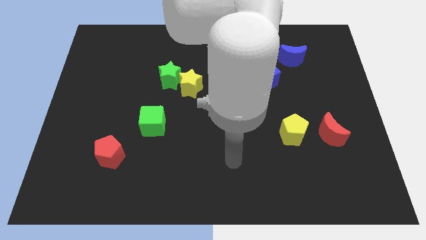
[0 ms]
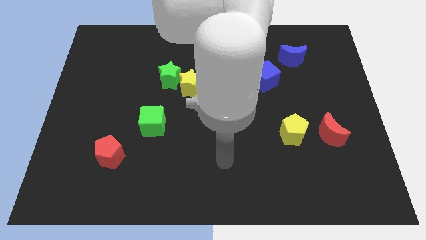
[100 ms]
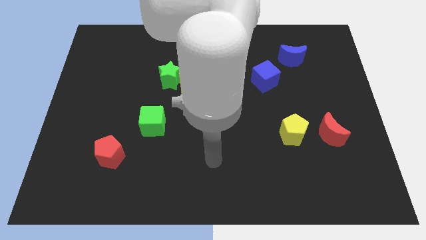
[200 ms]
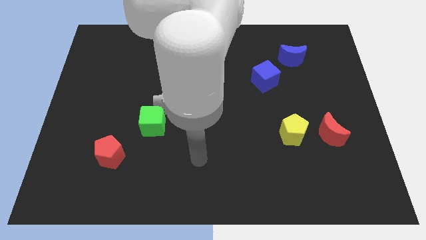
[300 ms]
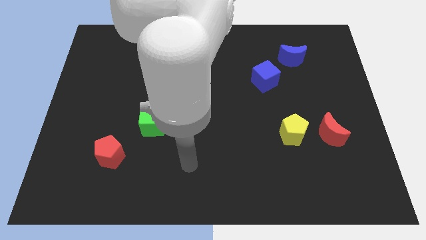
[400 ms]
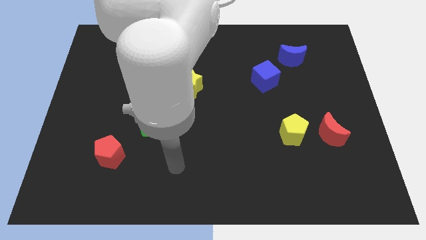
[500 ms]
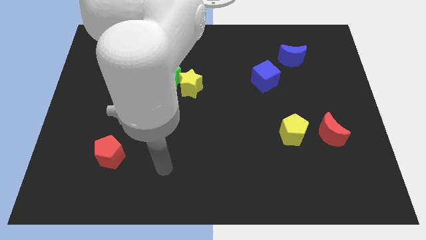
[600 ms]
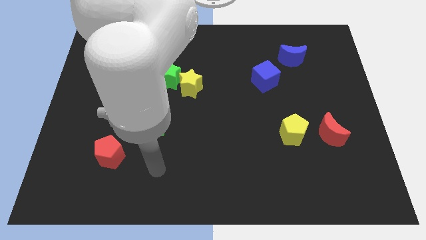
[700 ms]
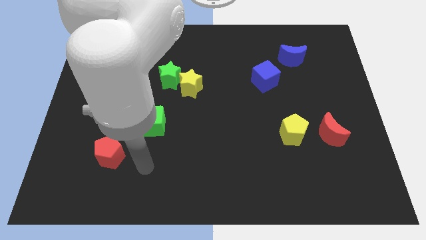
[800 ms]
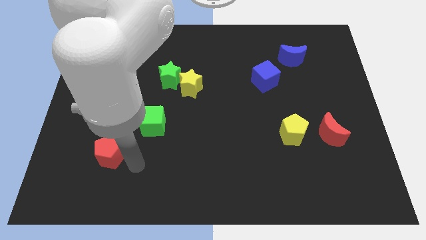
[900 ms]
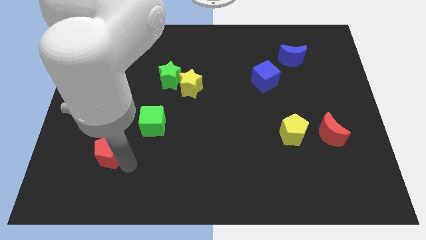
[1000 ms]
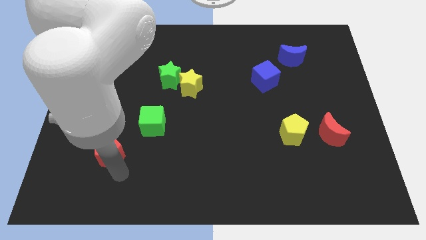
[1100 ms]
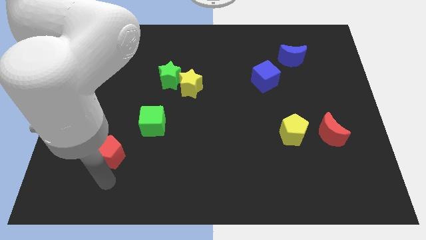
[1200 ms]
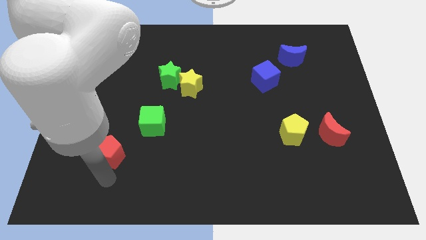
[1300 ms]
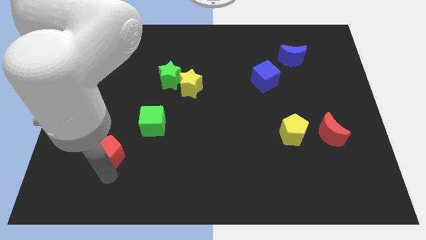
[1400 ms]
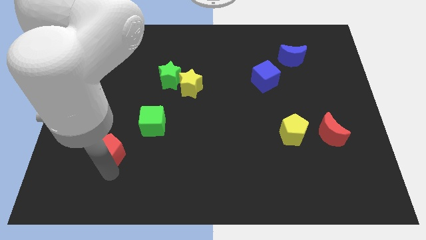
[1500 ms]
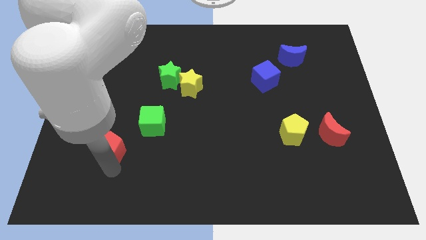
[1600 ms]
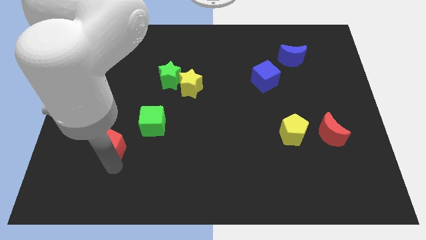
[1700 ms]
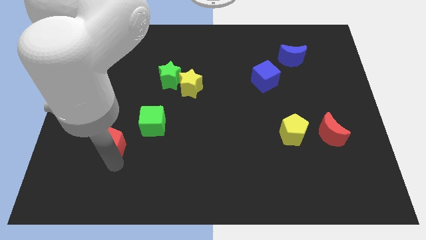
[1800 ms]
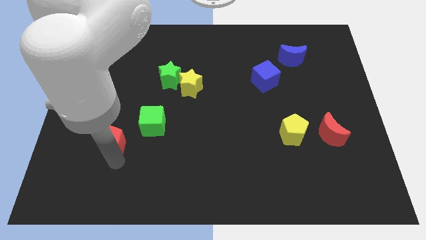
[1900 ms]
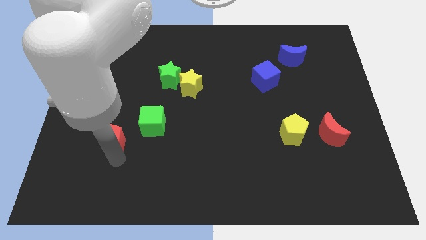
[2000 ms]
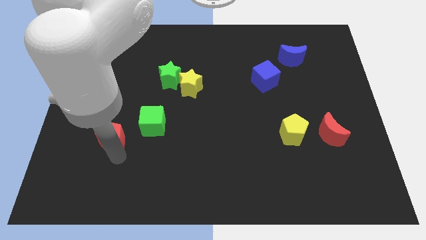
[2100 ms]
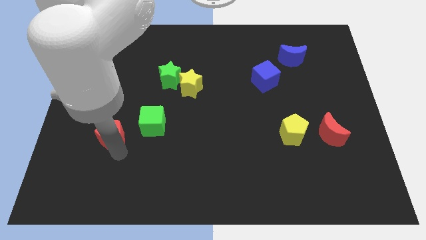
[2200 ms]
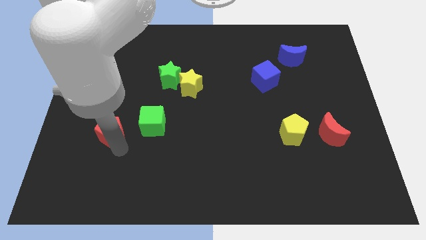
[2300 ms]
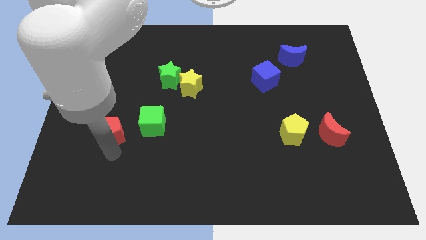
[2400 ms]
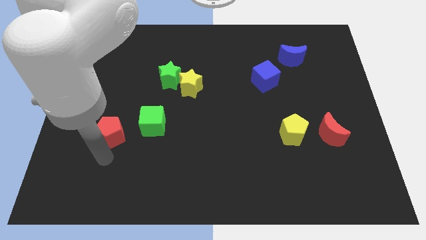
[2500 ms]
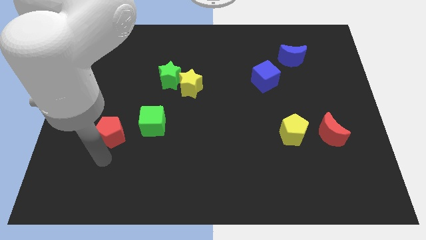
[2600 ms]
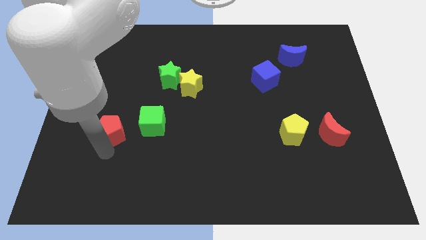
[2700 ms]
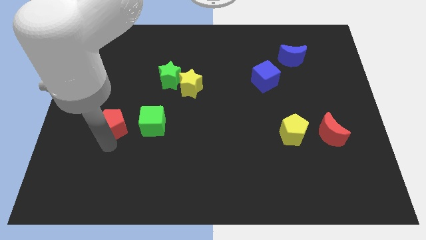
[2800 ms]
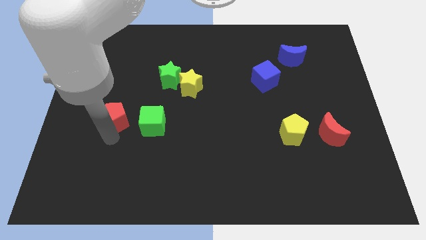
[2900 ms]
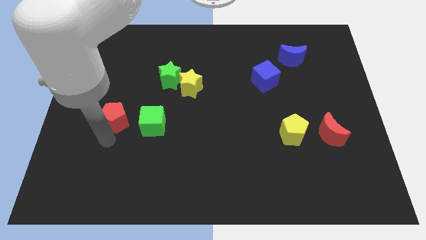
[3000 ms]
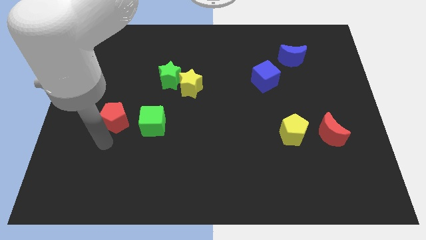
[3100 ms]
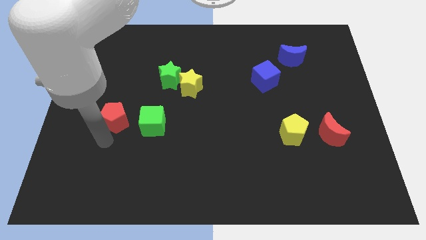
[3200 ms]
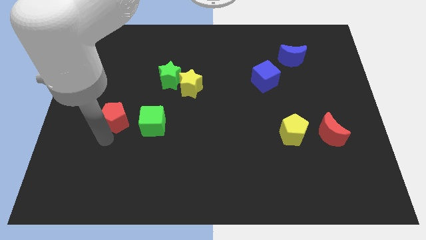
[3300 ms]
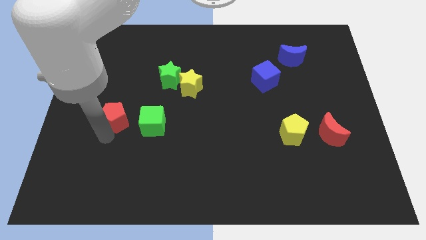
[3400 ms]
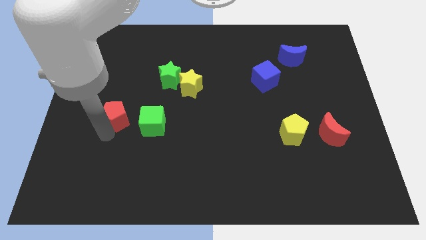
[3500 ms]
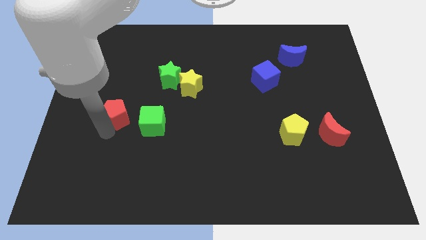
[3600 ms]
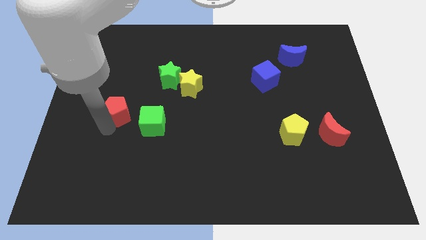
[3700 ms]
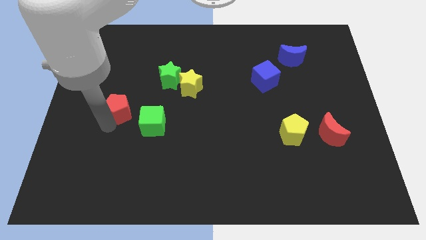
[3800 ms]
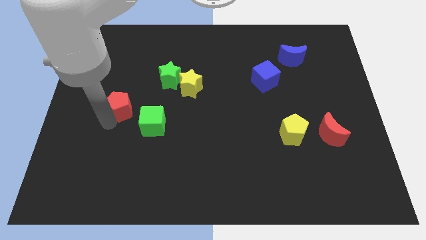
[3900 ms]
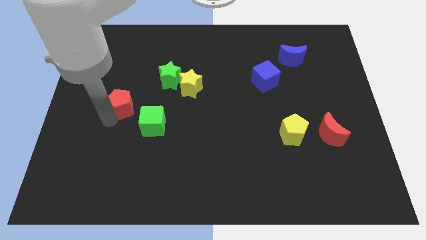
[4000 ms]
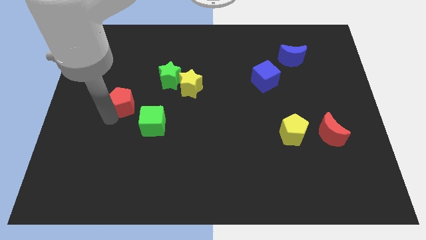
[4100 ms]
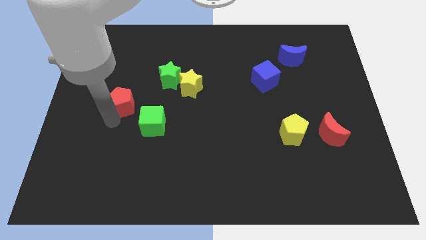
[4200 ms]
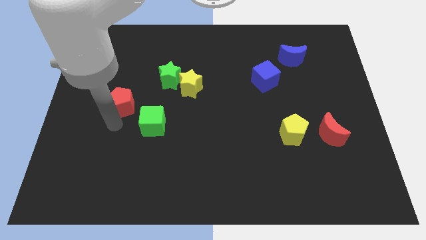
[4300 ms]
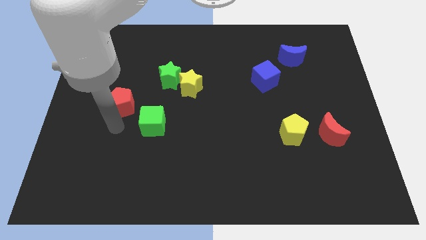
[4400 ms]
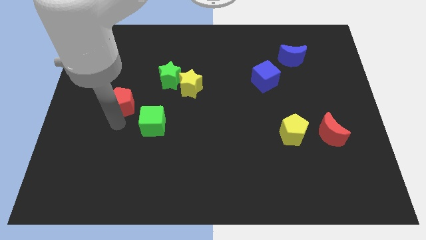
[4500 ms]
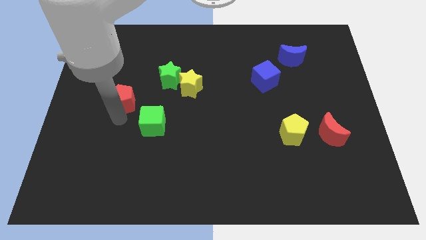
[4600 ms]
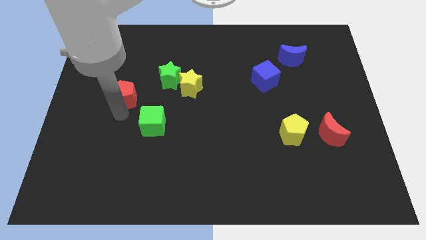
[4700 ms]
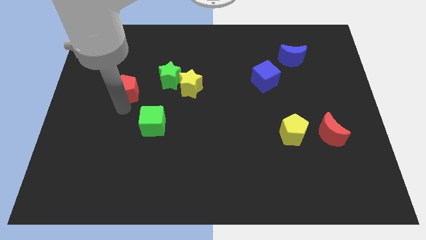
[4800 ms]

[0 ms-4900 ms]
move the red pentagon just left of the green star

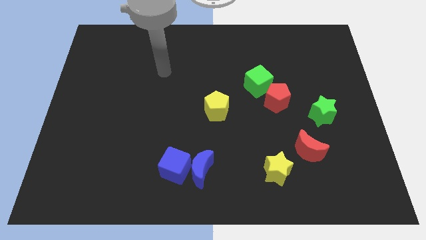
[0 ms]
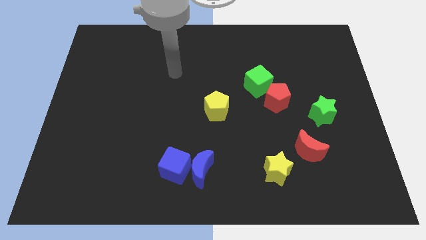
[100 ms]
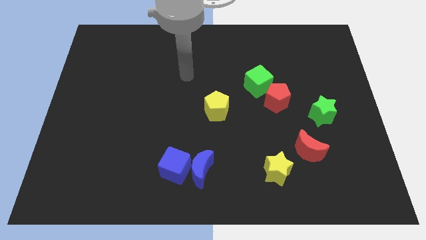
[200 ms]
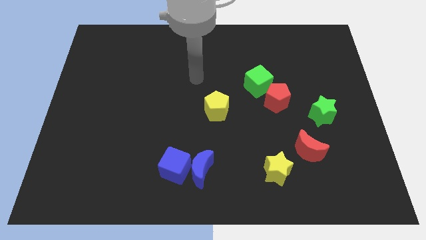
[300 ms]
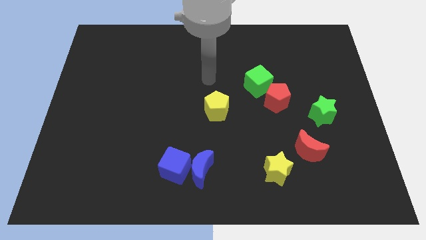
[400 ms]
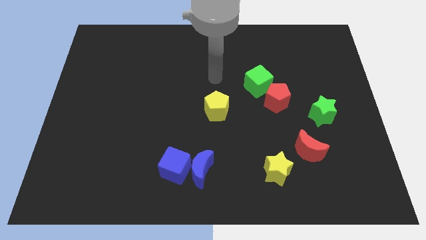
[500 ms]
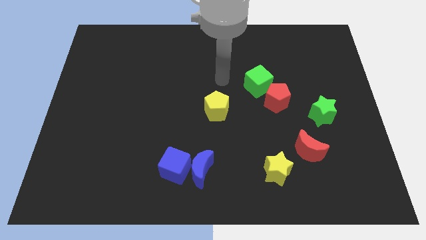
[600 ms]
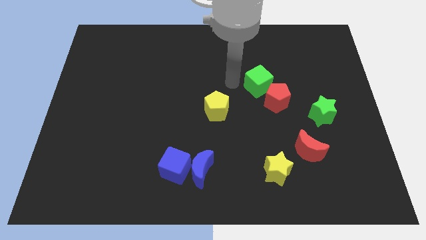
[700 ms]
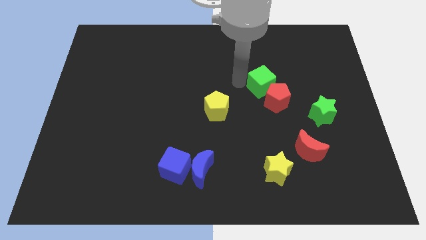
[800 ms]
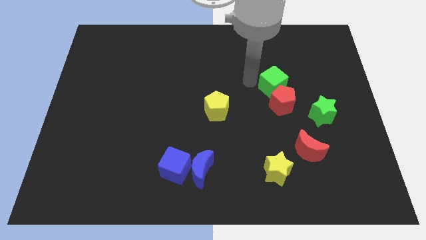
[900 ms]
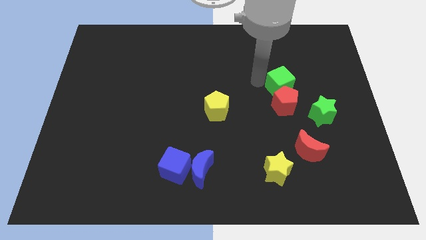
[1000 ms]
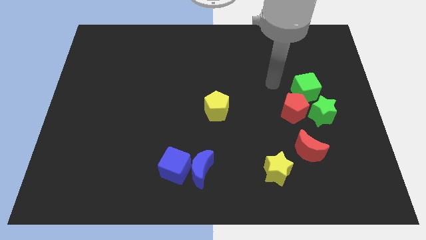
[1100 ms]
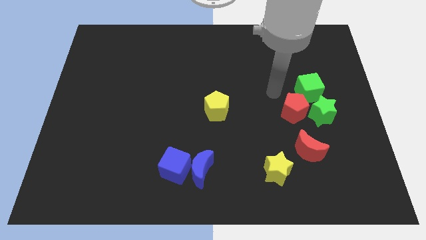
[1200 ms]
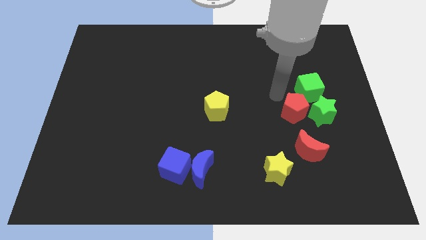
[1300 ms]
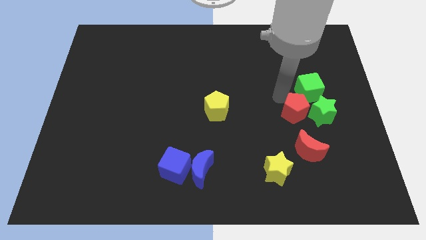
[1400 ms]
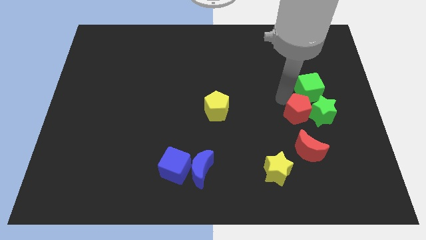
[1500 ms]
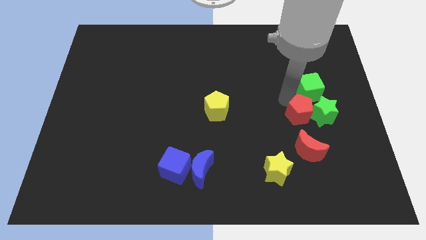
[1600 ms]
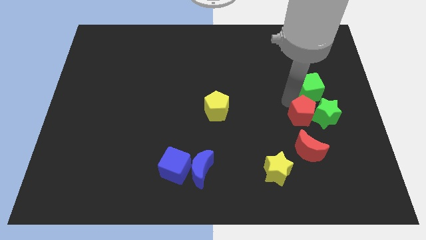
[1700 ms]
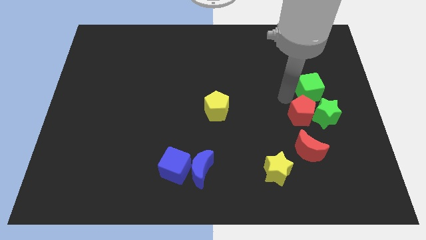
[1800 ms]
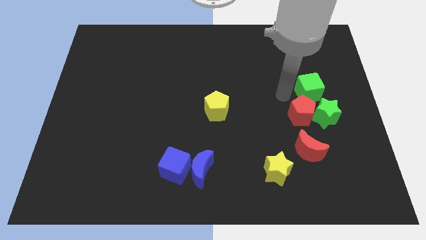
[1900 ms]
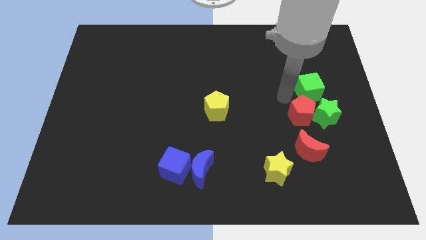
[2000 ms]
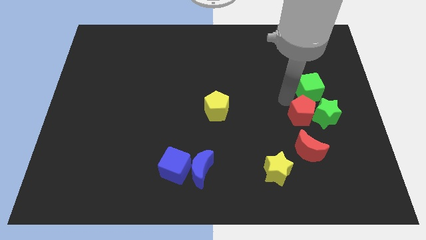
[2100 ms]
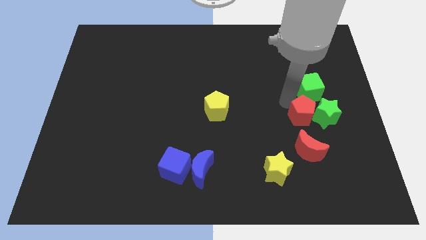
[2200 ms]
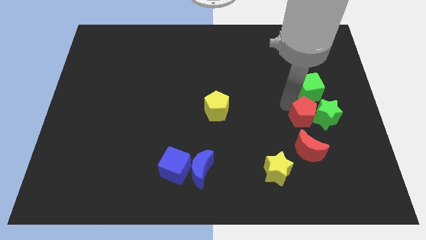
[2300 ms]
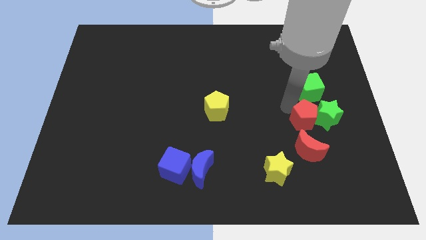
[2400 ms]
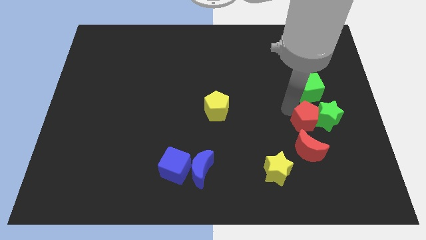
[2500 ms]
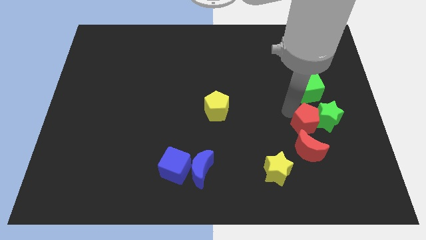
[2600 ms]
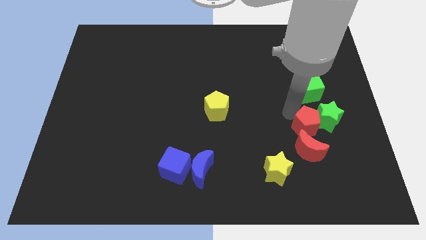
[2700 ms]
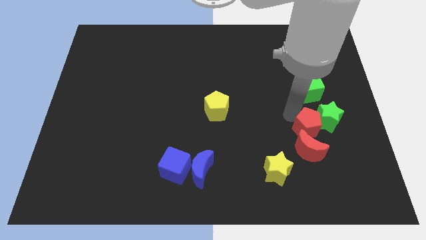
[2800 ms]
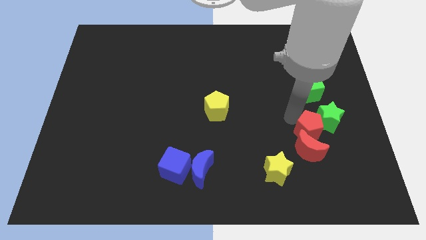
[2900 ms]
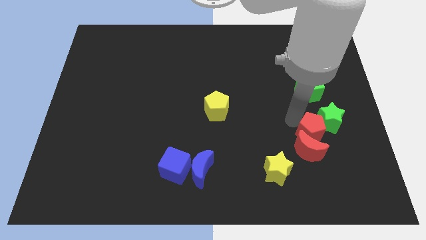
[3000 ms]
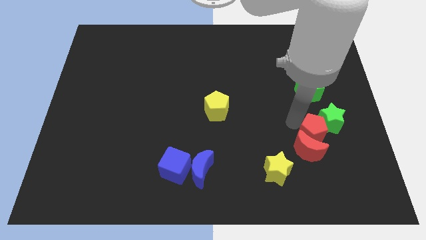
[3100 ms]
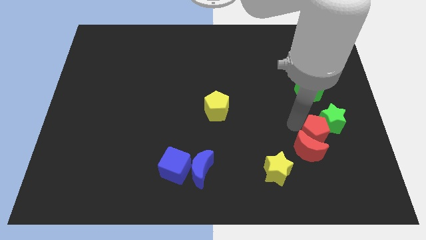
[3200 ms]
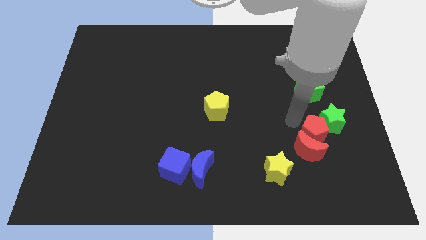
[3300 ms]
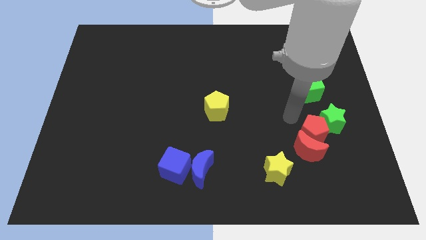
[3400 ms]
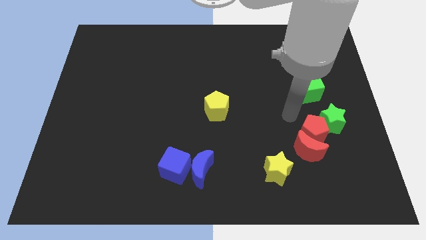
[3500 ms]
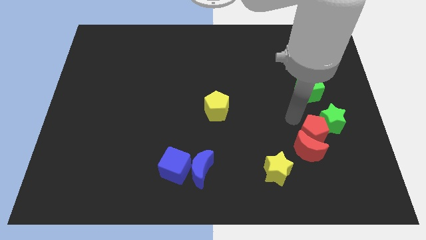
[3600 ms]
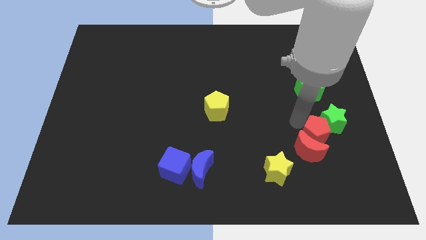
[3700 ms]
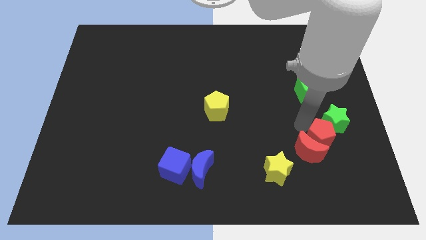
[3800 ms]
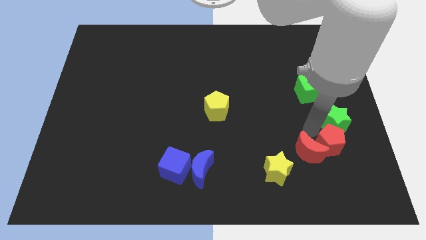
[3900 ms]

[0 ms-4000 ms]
move the red pentagon to the bottom right of the red moon
